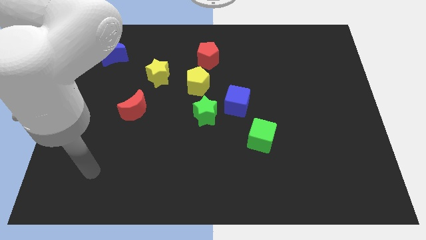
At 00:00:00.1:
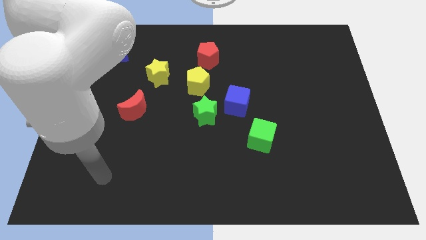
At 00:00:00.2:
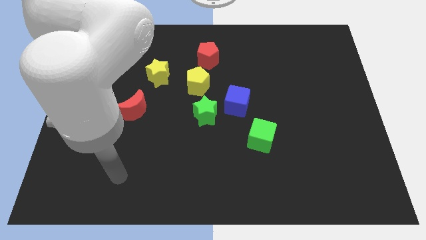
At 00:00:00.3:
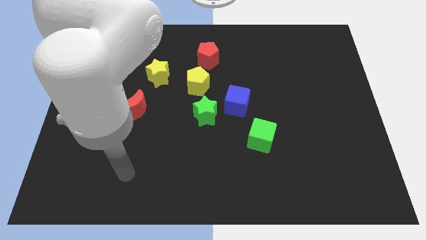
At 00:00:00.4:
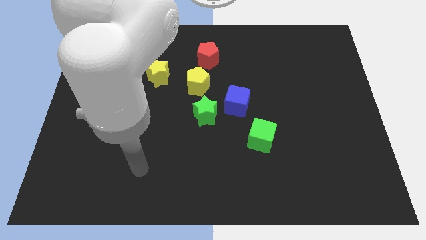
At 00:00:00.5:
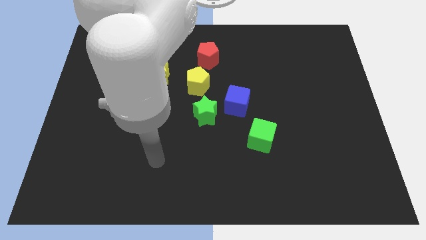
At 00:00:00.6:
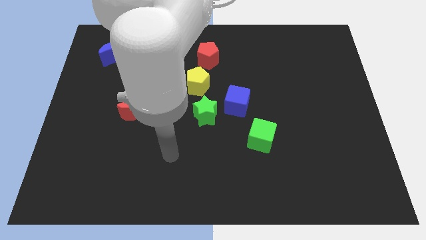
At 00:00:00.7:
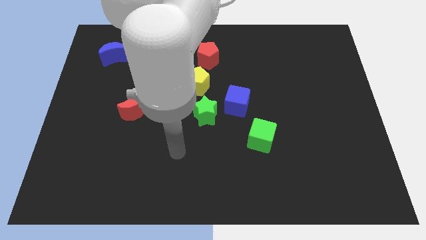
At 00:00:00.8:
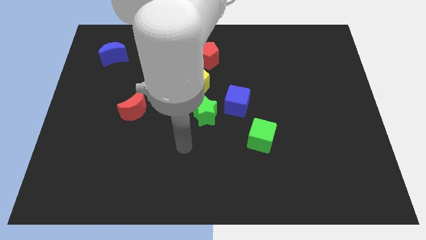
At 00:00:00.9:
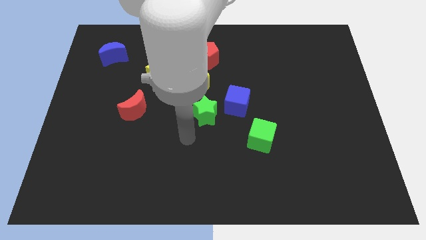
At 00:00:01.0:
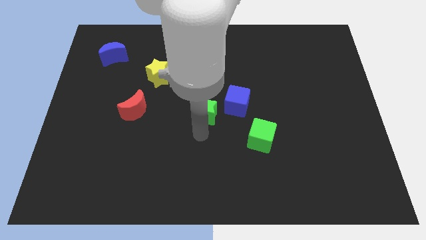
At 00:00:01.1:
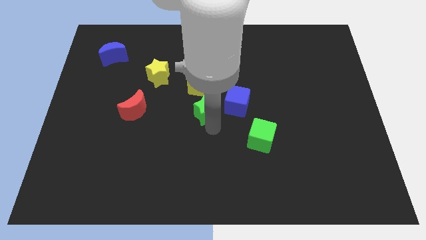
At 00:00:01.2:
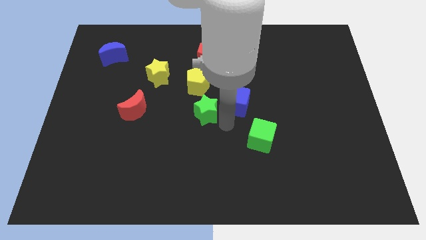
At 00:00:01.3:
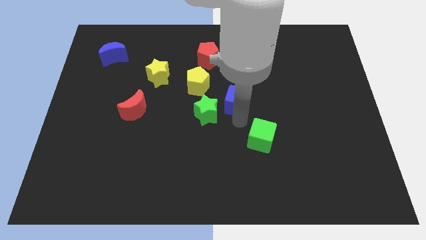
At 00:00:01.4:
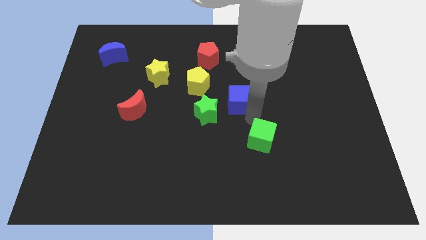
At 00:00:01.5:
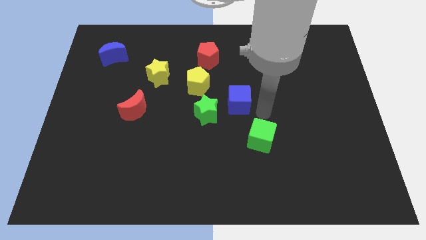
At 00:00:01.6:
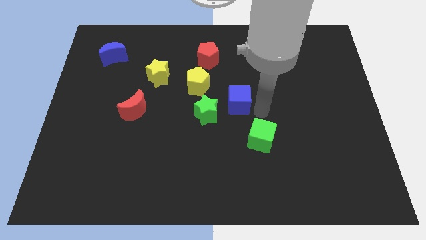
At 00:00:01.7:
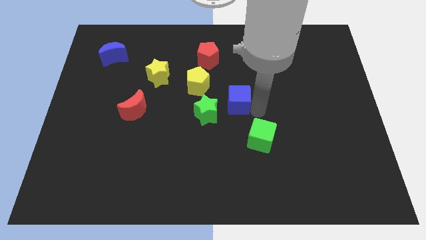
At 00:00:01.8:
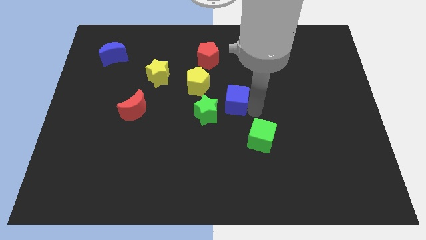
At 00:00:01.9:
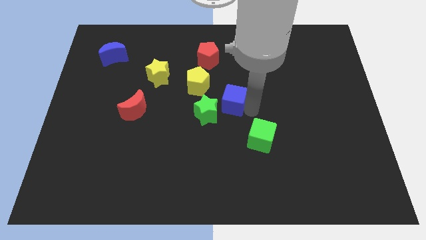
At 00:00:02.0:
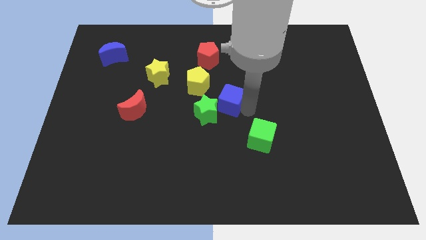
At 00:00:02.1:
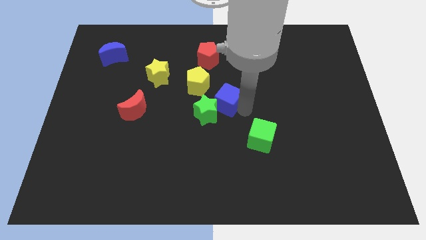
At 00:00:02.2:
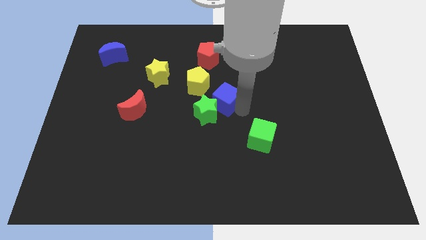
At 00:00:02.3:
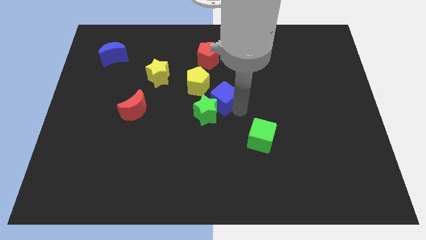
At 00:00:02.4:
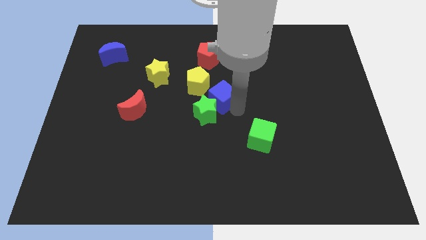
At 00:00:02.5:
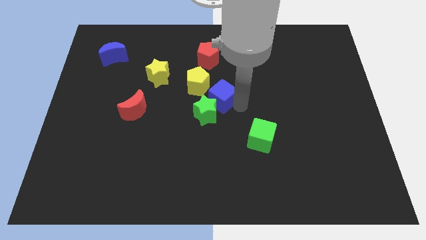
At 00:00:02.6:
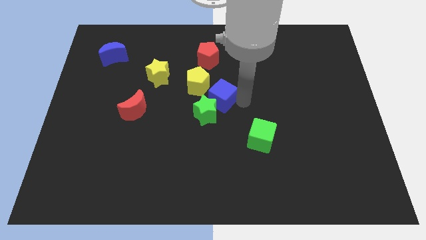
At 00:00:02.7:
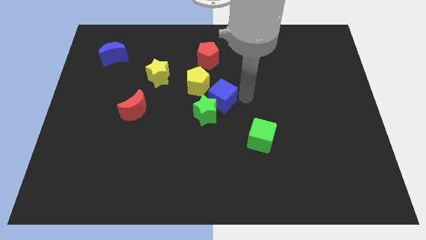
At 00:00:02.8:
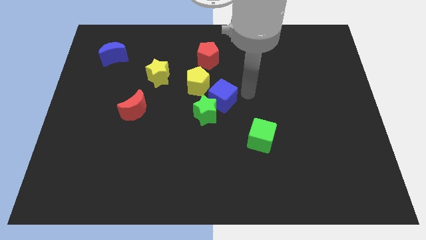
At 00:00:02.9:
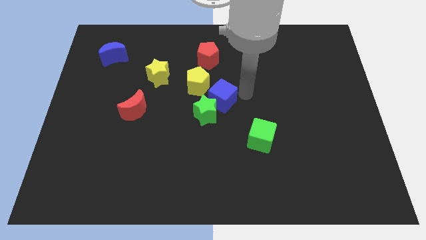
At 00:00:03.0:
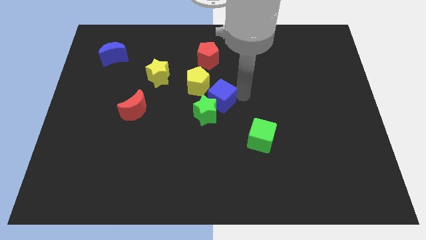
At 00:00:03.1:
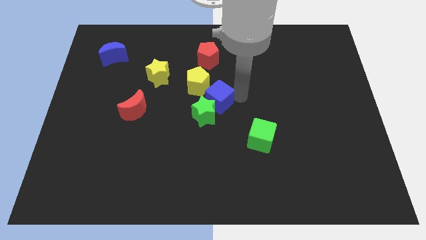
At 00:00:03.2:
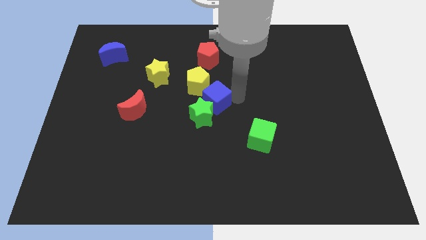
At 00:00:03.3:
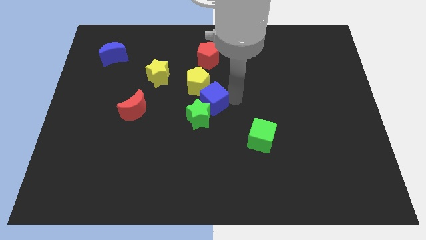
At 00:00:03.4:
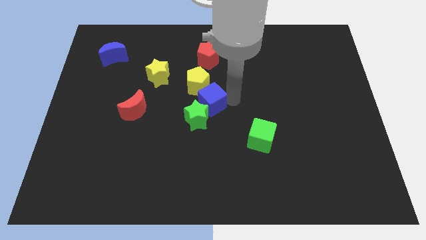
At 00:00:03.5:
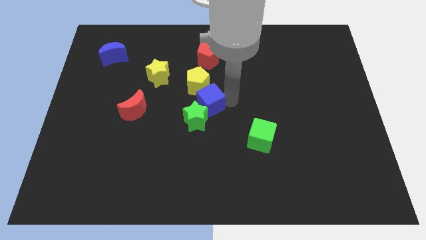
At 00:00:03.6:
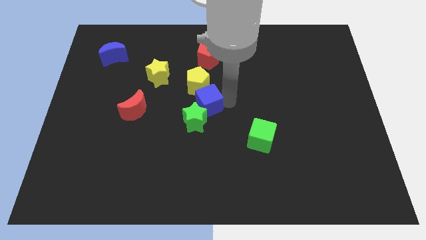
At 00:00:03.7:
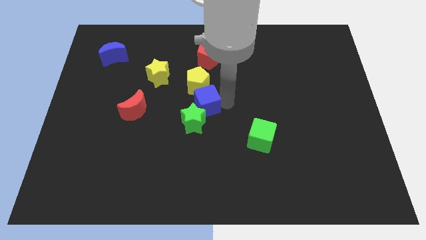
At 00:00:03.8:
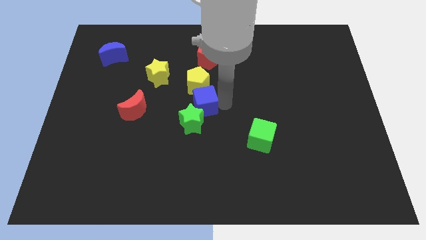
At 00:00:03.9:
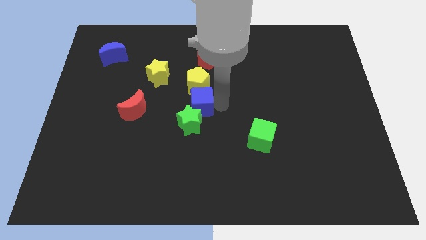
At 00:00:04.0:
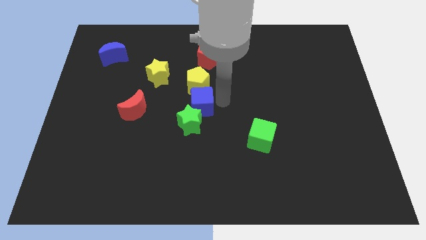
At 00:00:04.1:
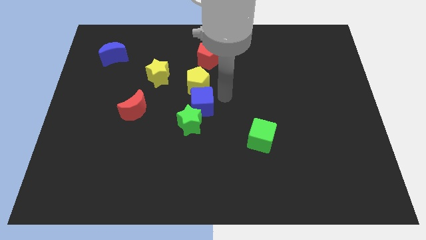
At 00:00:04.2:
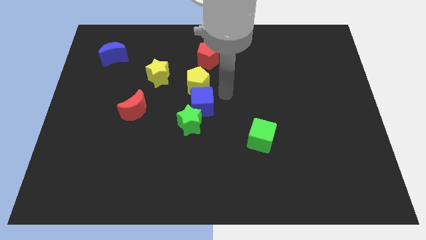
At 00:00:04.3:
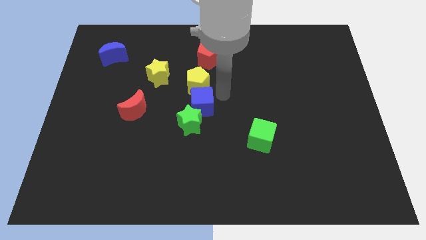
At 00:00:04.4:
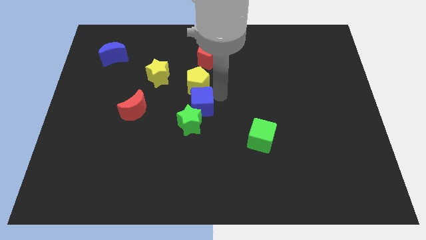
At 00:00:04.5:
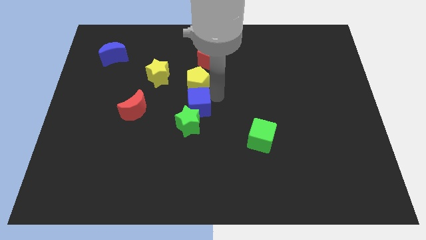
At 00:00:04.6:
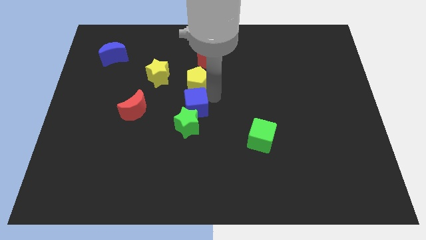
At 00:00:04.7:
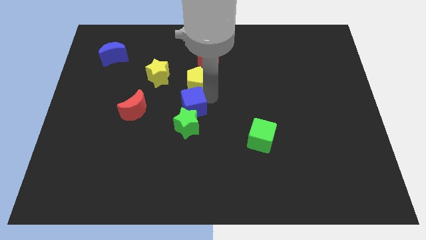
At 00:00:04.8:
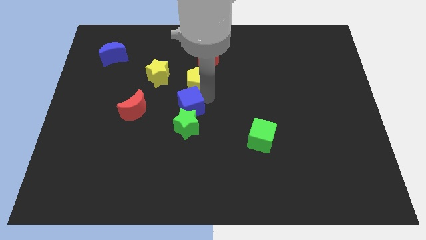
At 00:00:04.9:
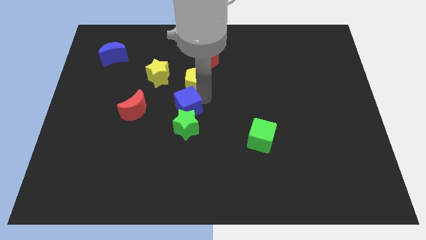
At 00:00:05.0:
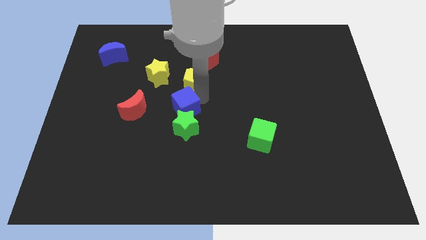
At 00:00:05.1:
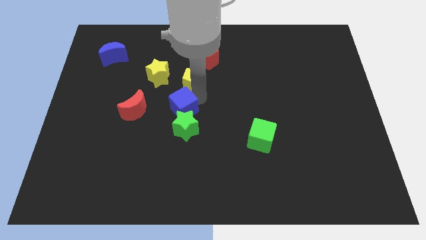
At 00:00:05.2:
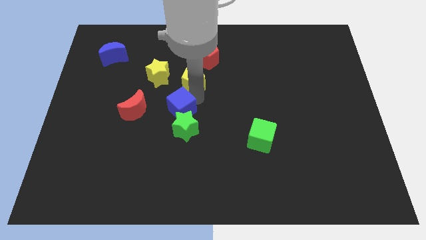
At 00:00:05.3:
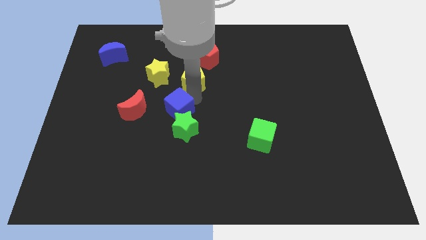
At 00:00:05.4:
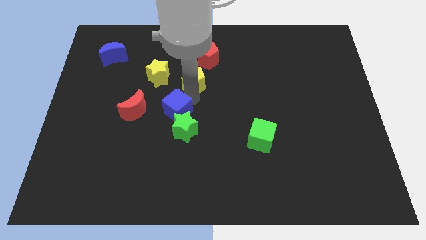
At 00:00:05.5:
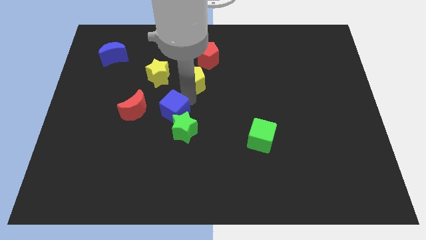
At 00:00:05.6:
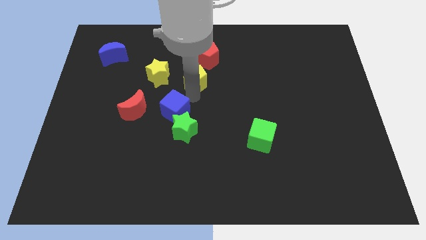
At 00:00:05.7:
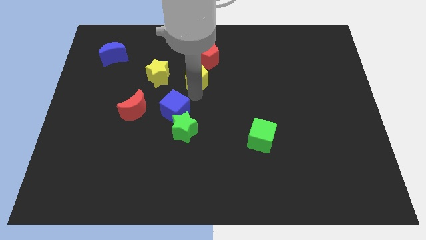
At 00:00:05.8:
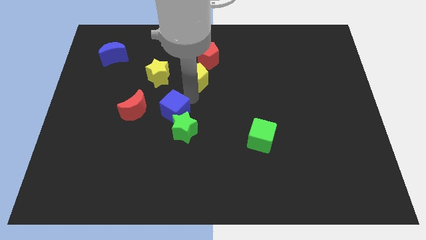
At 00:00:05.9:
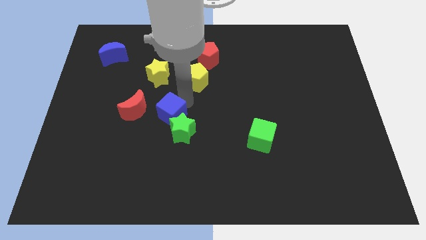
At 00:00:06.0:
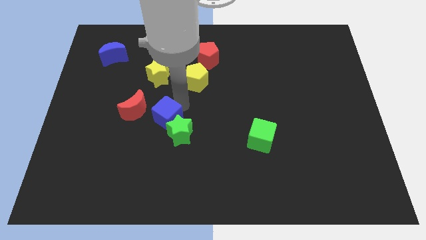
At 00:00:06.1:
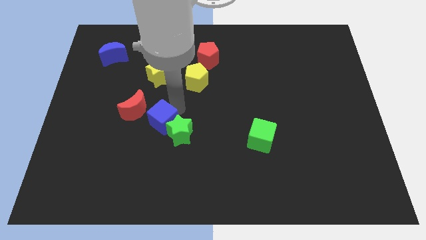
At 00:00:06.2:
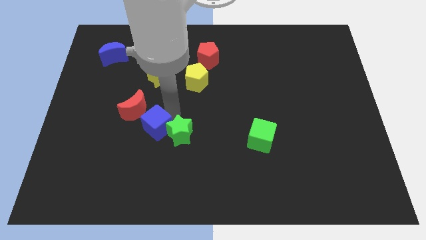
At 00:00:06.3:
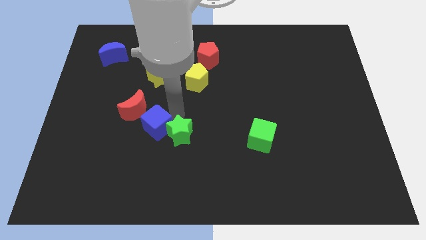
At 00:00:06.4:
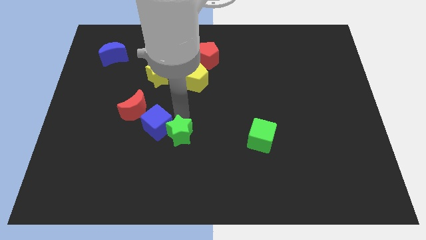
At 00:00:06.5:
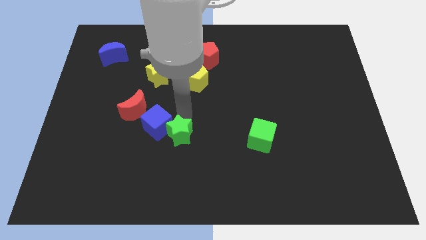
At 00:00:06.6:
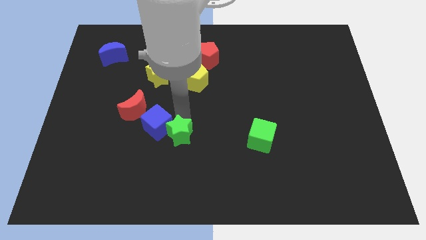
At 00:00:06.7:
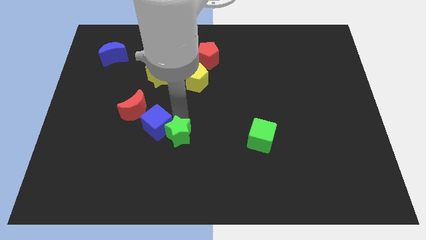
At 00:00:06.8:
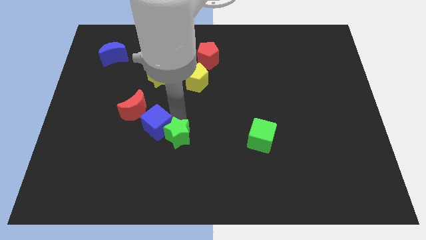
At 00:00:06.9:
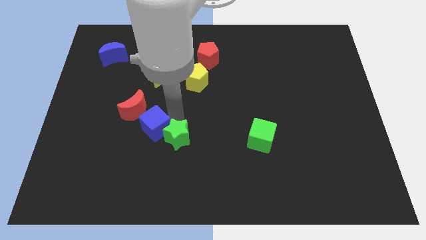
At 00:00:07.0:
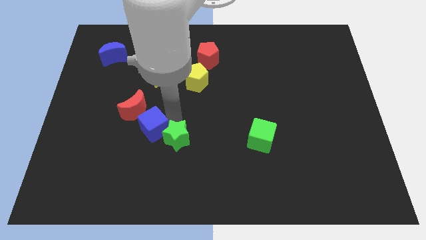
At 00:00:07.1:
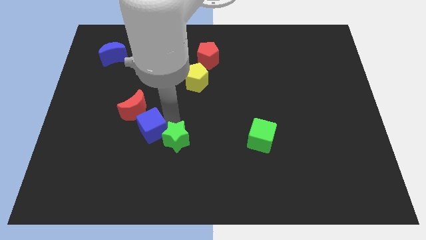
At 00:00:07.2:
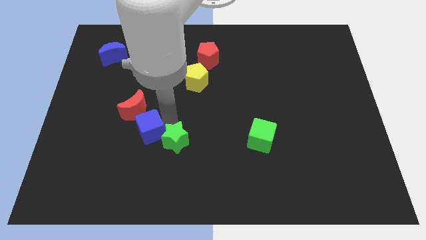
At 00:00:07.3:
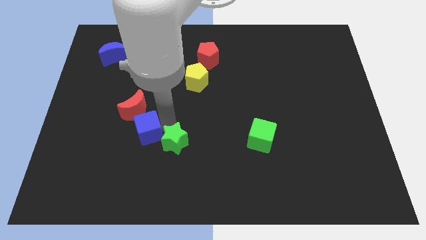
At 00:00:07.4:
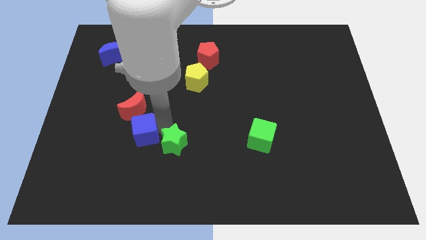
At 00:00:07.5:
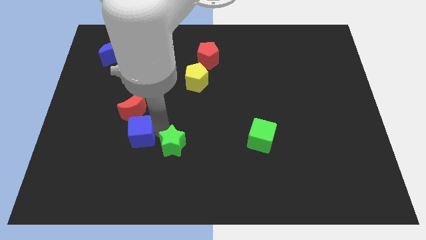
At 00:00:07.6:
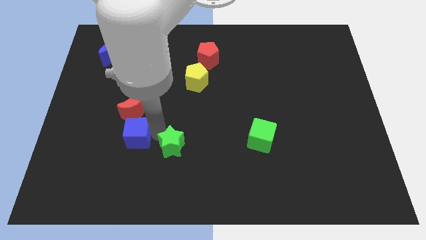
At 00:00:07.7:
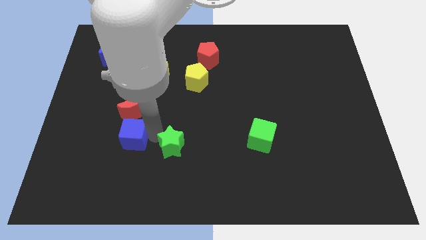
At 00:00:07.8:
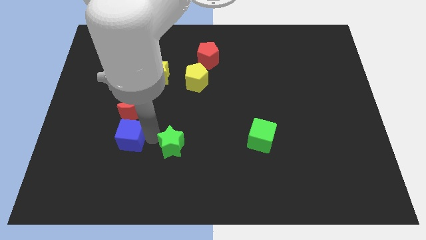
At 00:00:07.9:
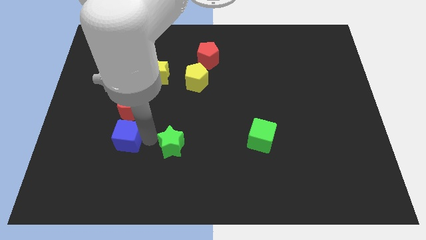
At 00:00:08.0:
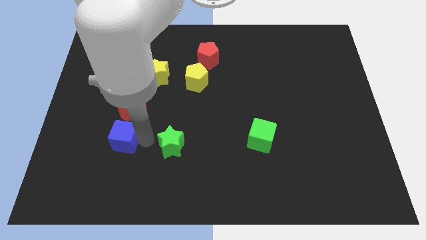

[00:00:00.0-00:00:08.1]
move the blue cube to the bottom left side of the red moon
